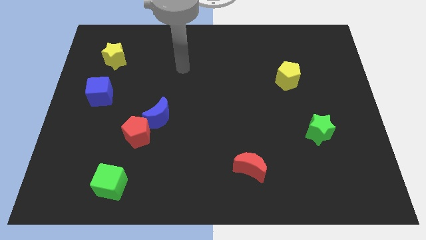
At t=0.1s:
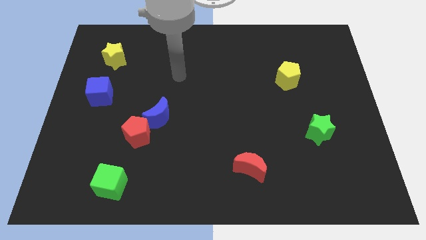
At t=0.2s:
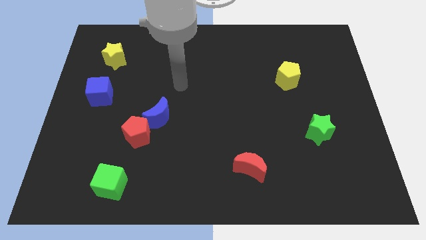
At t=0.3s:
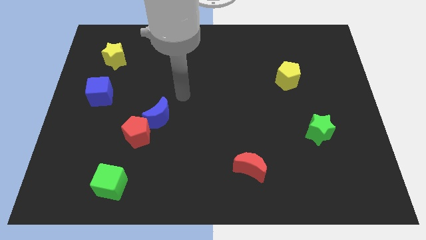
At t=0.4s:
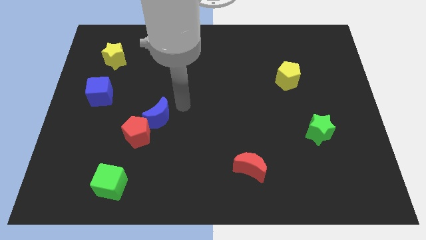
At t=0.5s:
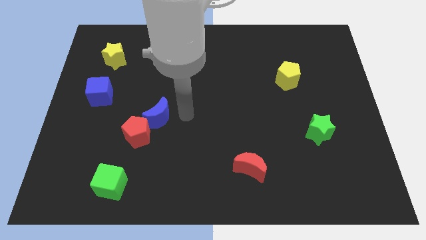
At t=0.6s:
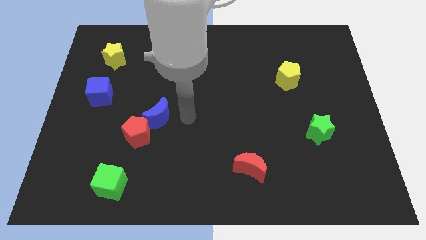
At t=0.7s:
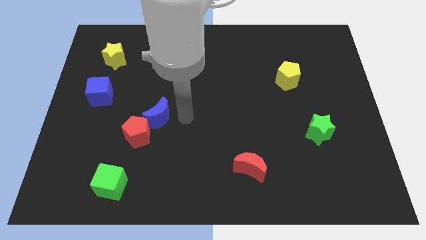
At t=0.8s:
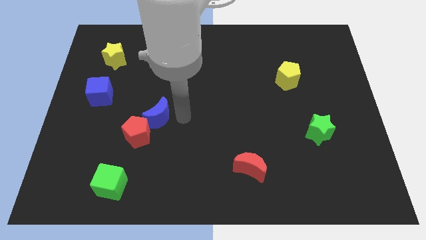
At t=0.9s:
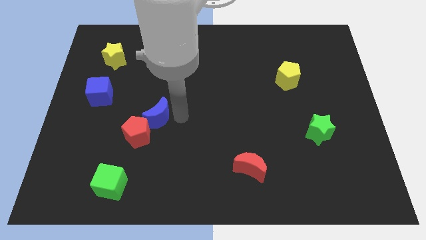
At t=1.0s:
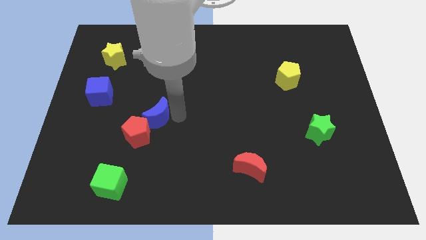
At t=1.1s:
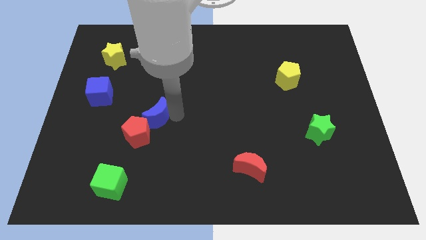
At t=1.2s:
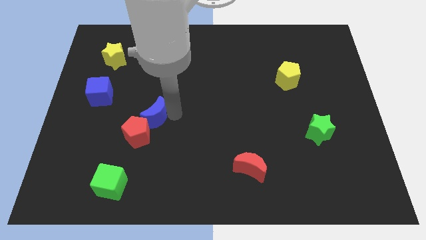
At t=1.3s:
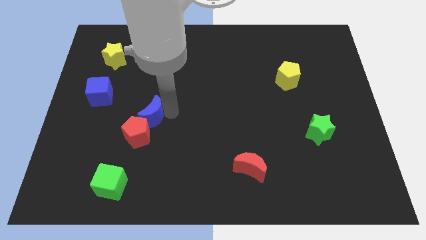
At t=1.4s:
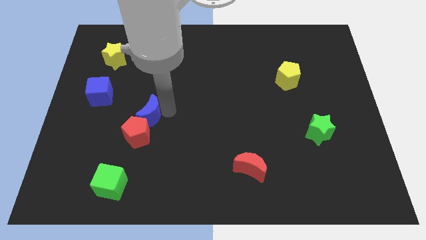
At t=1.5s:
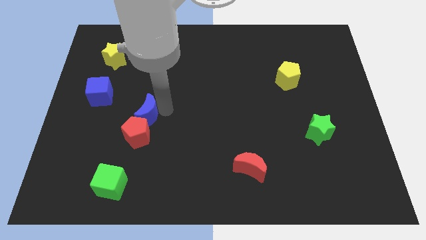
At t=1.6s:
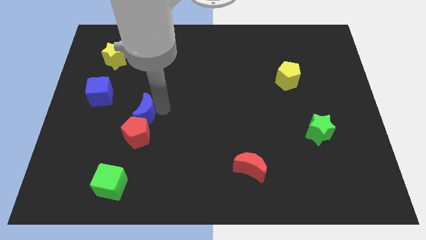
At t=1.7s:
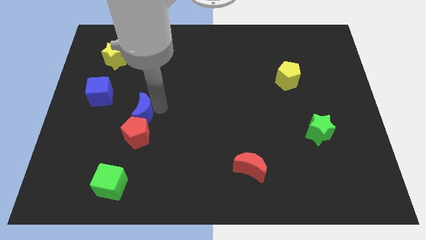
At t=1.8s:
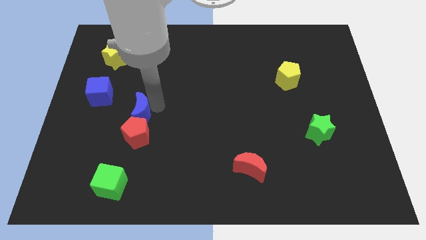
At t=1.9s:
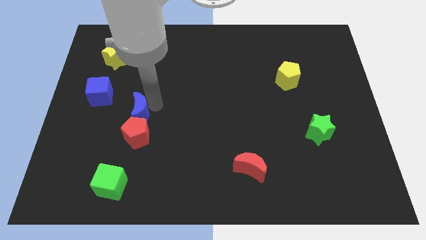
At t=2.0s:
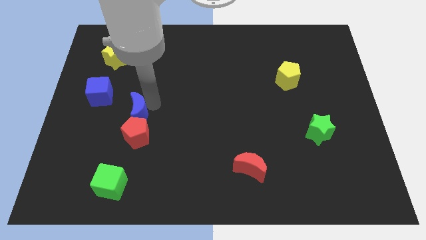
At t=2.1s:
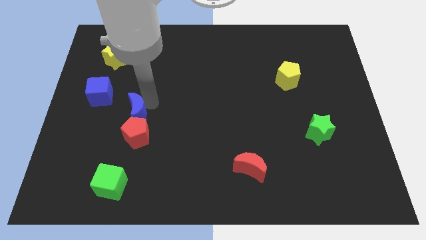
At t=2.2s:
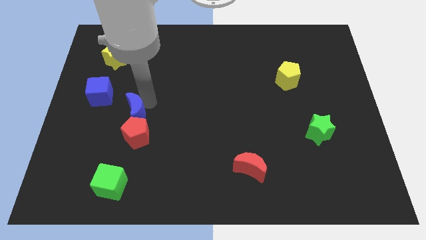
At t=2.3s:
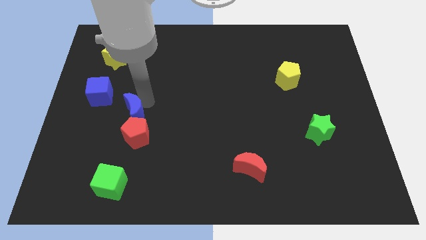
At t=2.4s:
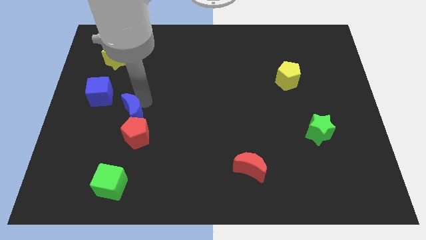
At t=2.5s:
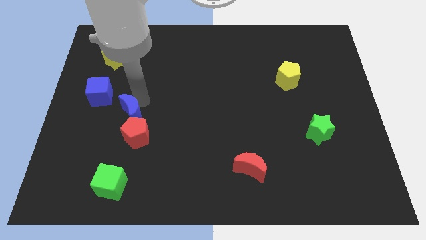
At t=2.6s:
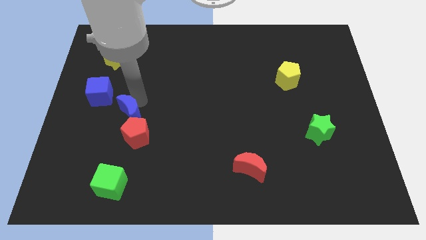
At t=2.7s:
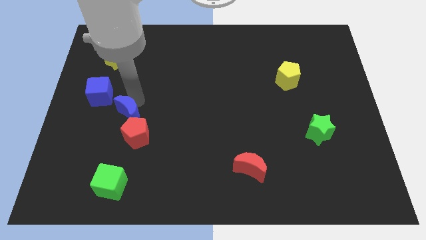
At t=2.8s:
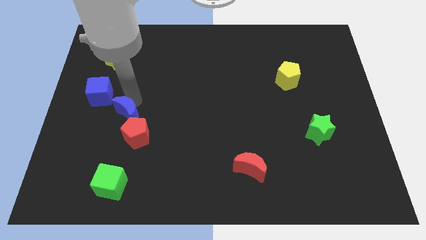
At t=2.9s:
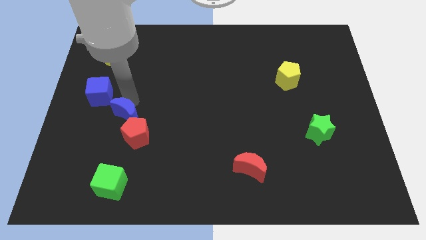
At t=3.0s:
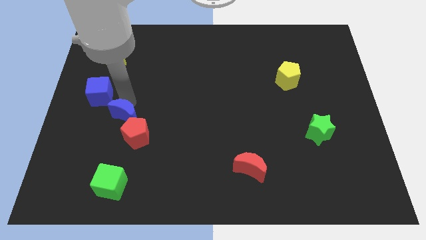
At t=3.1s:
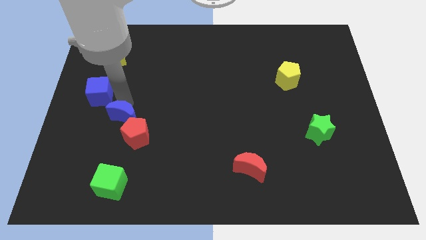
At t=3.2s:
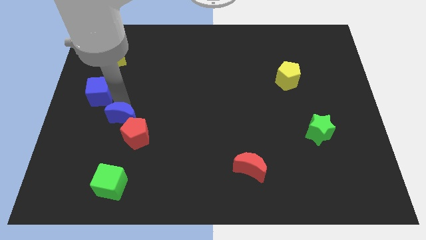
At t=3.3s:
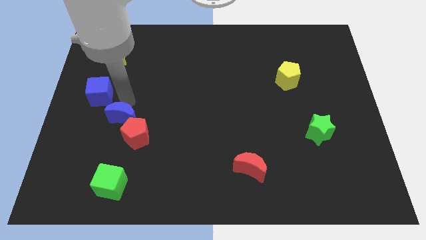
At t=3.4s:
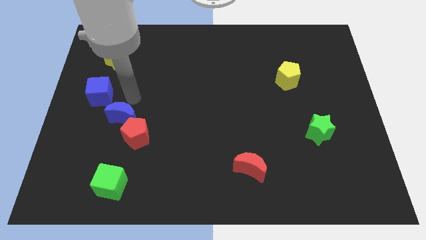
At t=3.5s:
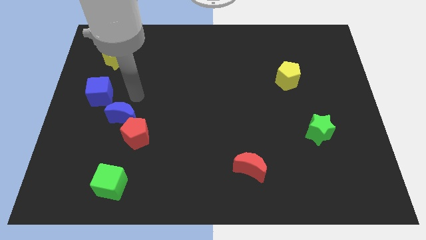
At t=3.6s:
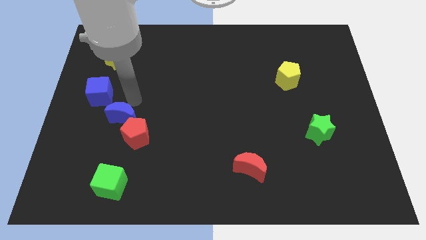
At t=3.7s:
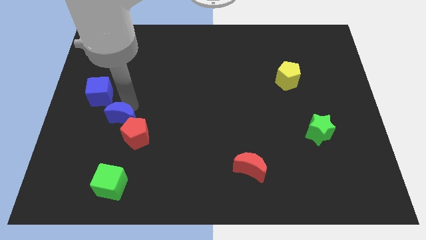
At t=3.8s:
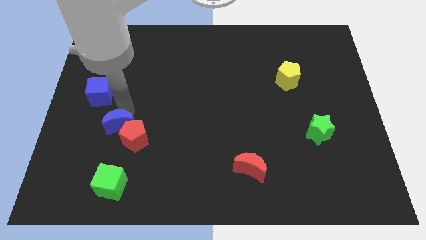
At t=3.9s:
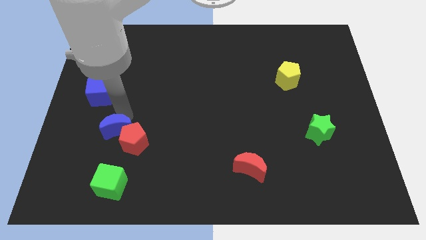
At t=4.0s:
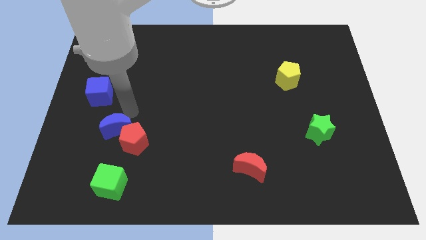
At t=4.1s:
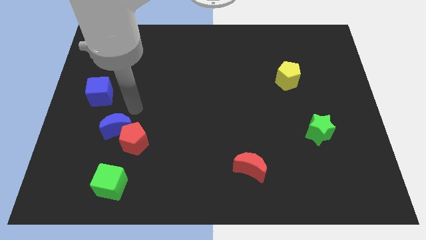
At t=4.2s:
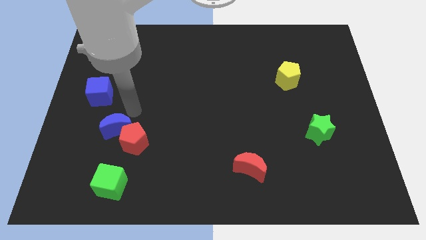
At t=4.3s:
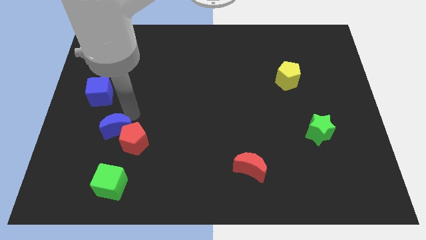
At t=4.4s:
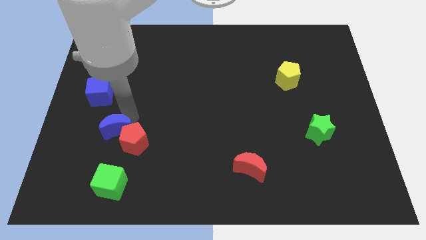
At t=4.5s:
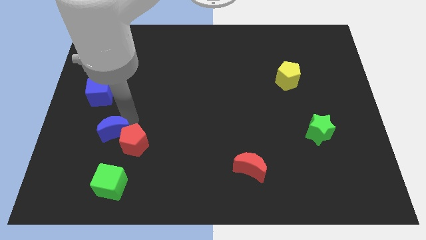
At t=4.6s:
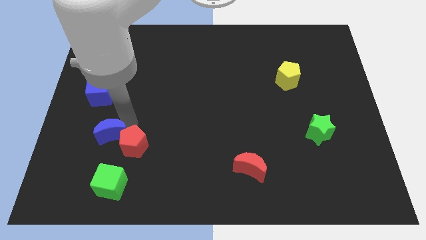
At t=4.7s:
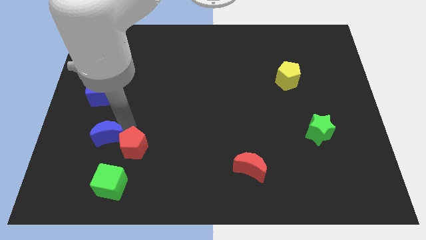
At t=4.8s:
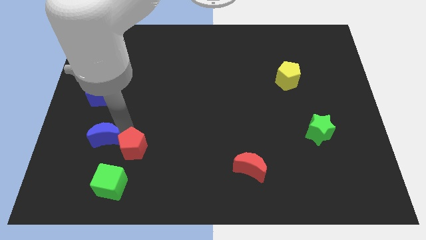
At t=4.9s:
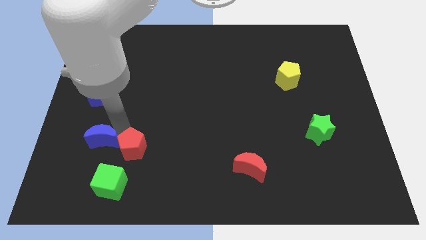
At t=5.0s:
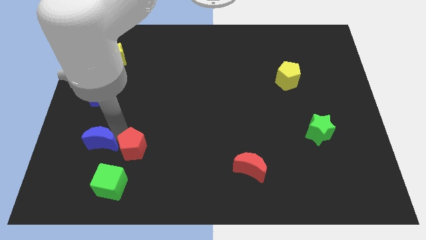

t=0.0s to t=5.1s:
slide the blue moon to the top left of the green cube

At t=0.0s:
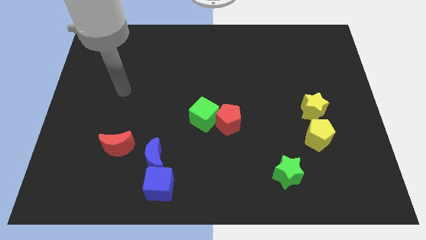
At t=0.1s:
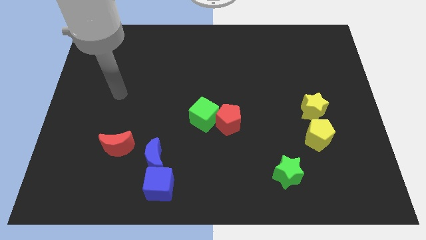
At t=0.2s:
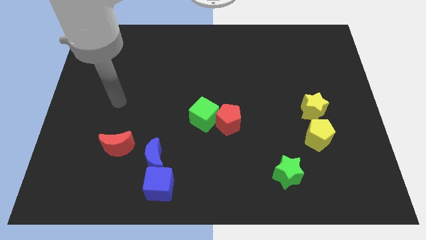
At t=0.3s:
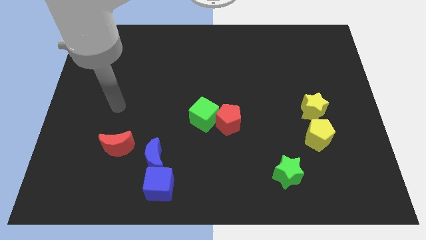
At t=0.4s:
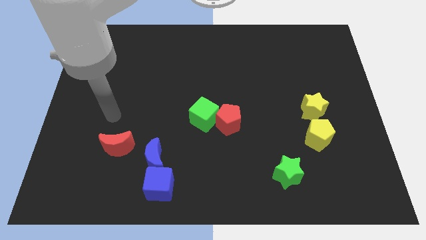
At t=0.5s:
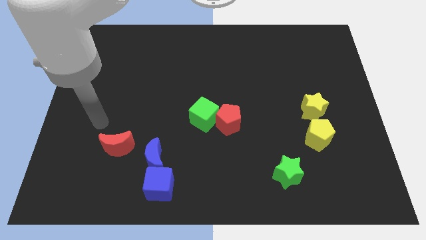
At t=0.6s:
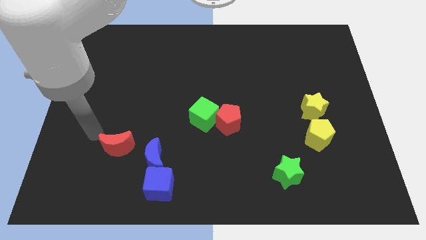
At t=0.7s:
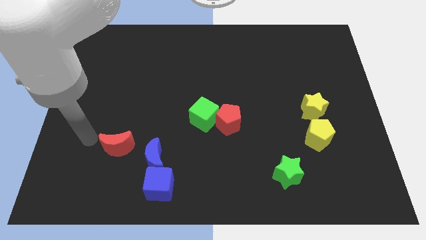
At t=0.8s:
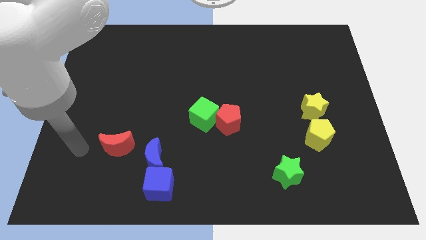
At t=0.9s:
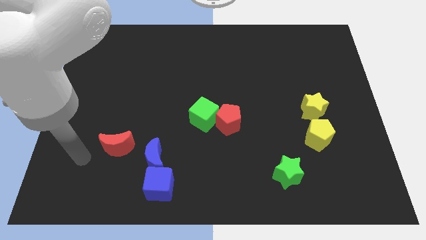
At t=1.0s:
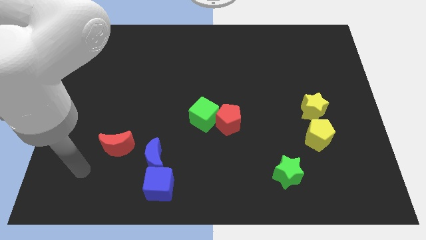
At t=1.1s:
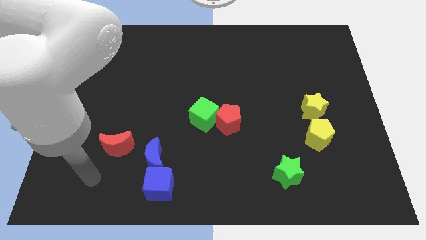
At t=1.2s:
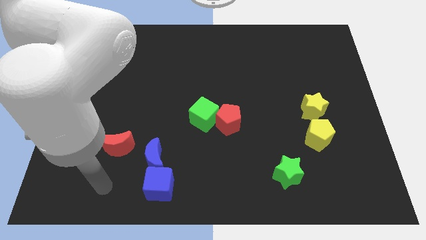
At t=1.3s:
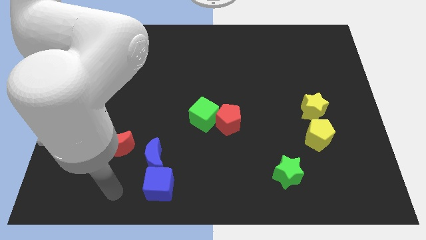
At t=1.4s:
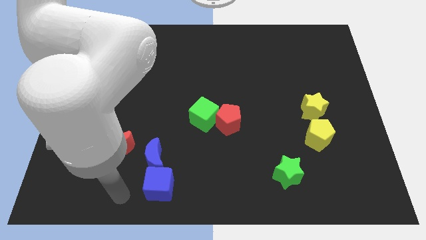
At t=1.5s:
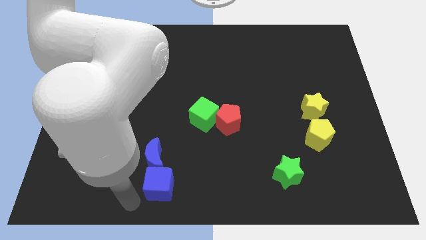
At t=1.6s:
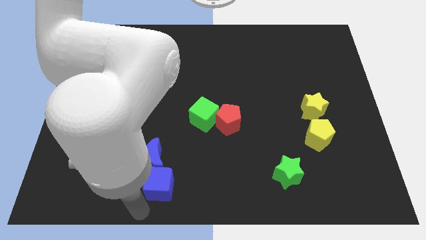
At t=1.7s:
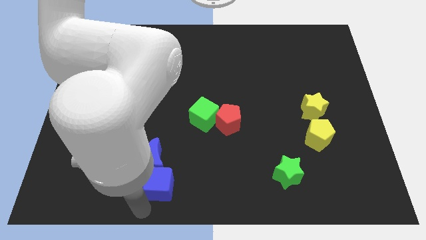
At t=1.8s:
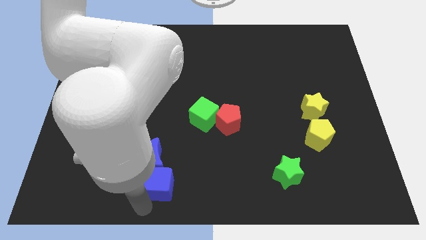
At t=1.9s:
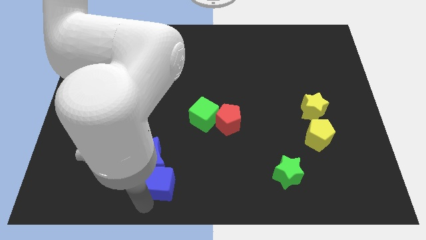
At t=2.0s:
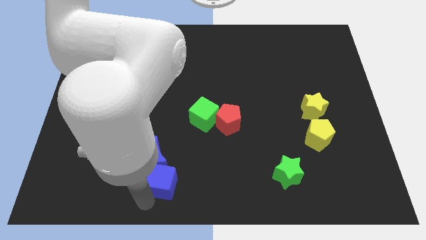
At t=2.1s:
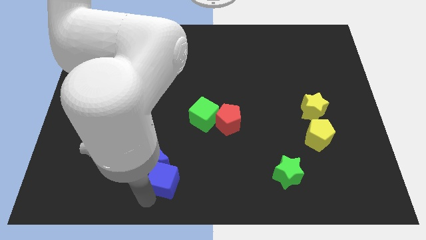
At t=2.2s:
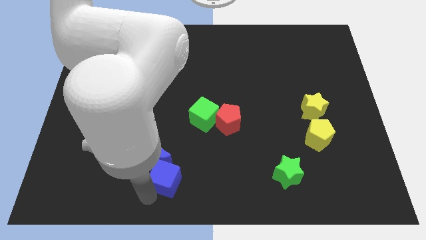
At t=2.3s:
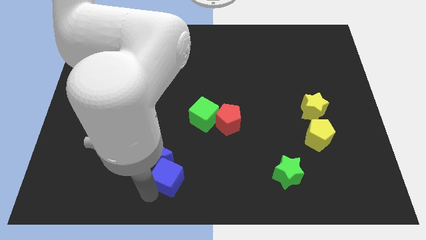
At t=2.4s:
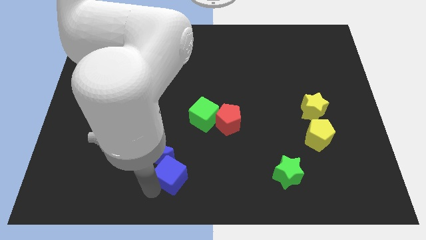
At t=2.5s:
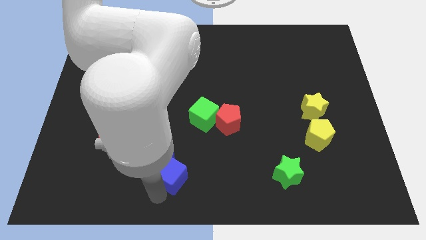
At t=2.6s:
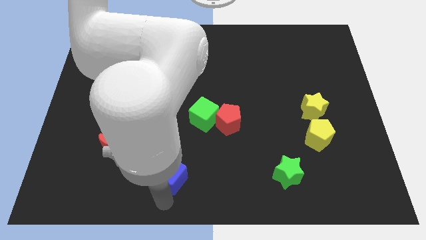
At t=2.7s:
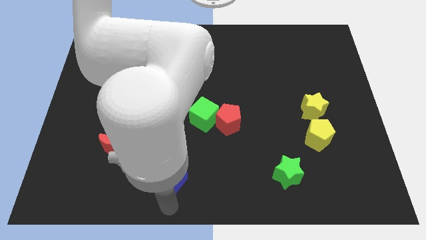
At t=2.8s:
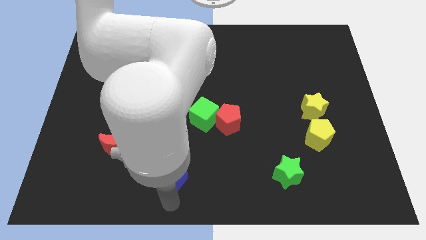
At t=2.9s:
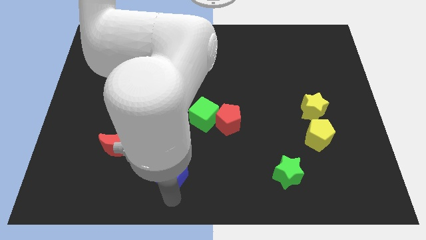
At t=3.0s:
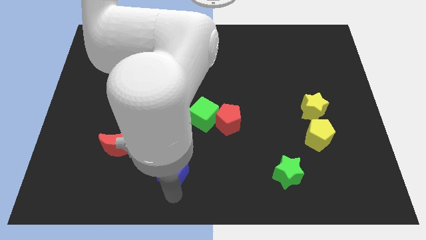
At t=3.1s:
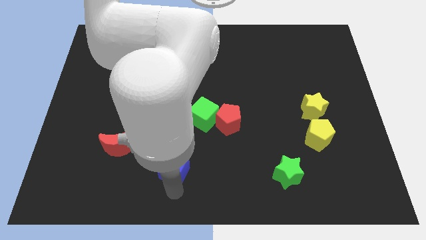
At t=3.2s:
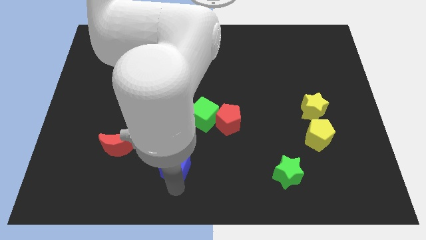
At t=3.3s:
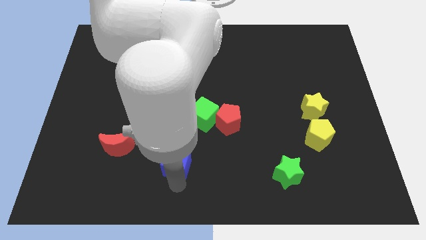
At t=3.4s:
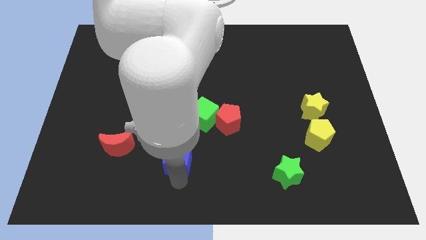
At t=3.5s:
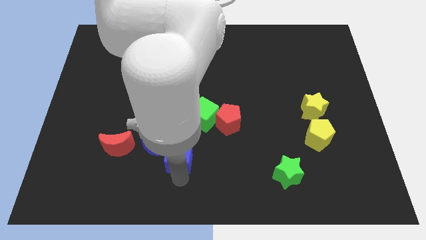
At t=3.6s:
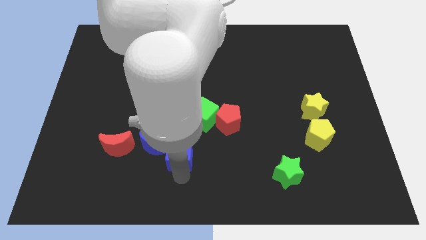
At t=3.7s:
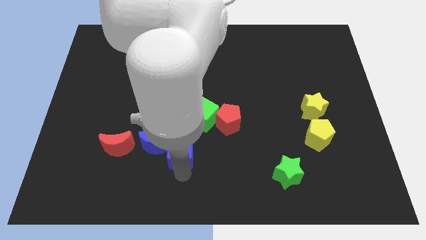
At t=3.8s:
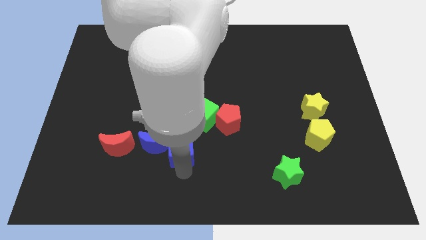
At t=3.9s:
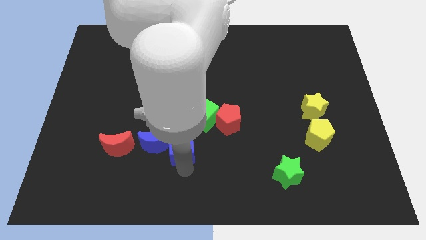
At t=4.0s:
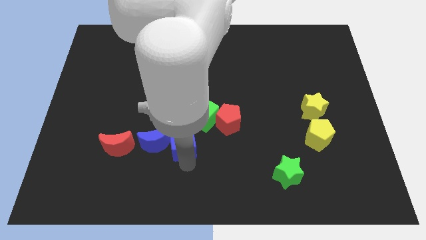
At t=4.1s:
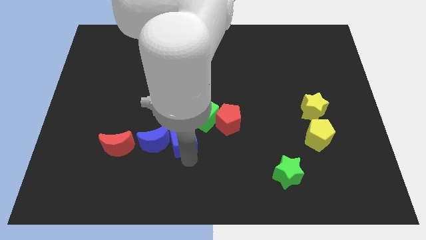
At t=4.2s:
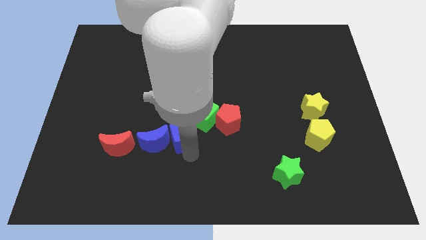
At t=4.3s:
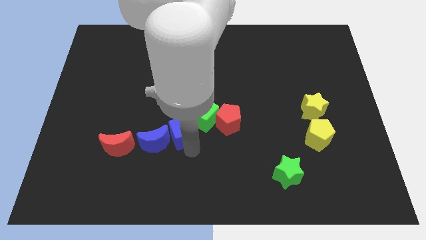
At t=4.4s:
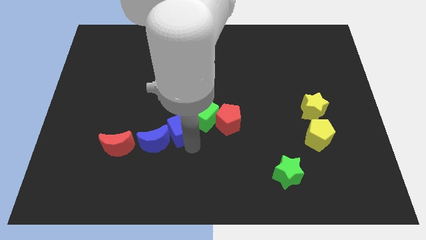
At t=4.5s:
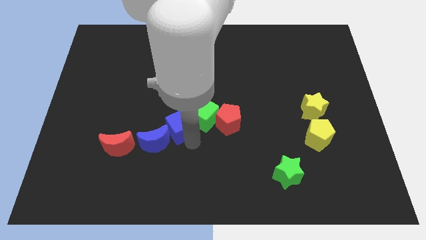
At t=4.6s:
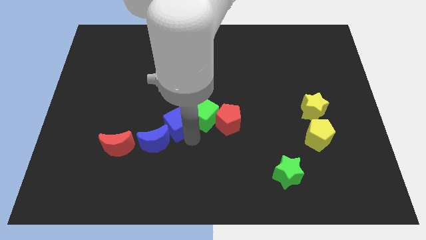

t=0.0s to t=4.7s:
push the blue cube above the blue moon
